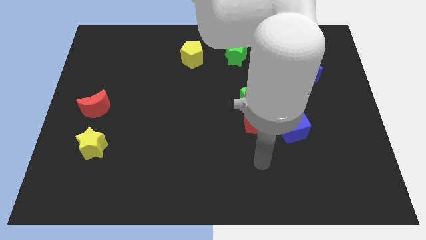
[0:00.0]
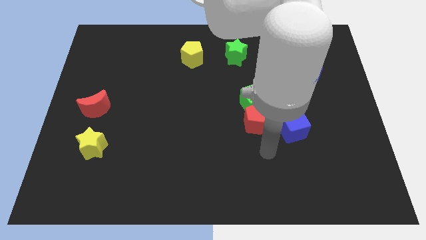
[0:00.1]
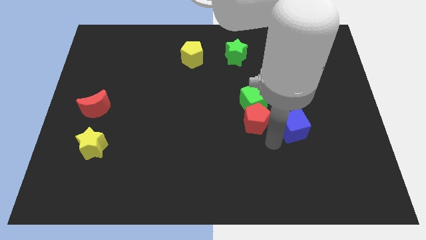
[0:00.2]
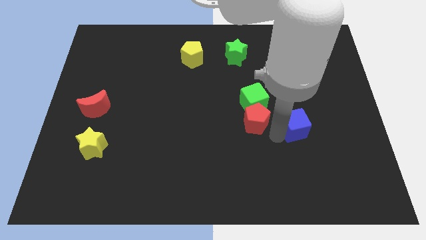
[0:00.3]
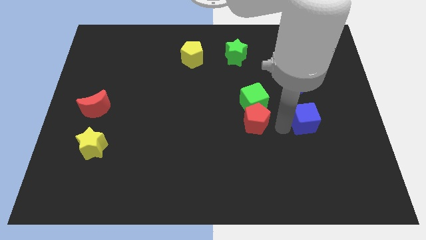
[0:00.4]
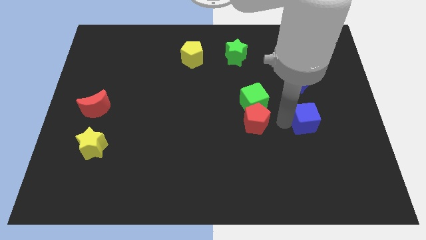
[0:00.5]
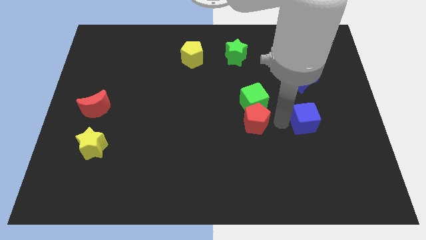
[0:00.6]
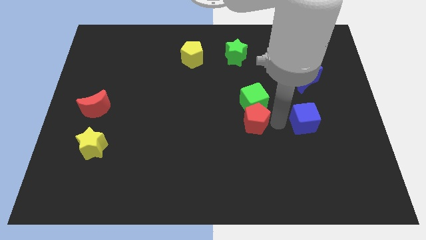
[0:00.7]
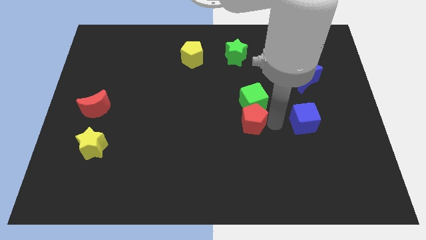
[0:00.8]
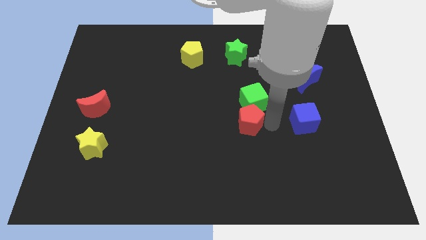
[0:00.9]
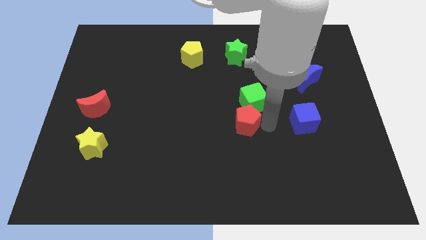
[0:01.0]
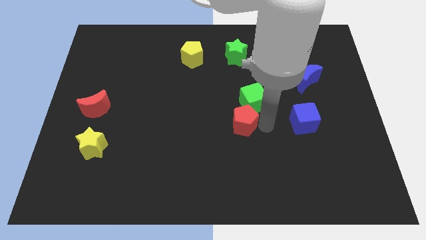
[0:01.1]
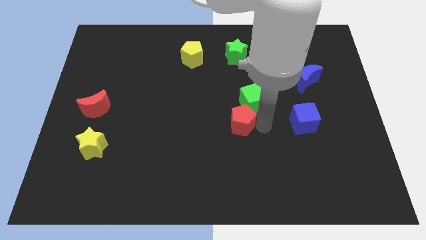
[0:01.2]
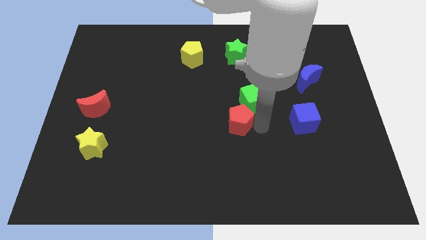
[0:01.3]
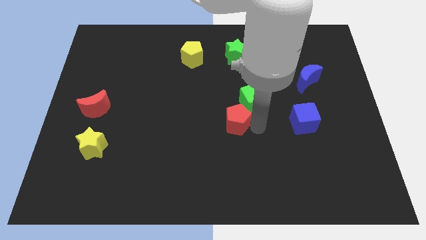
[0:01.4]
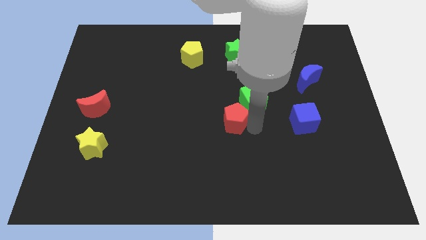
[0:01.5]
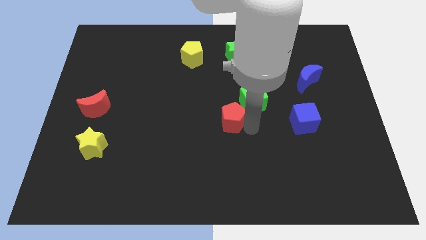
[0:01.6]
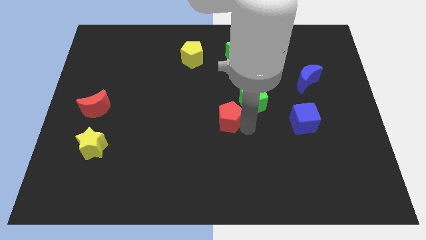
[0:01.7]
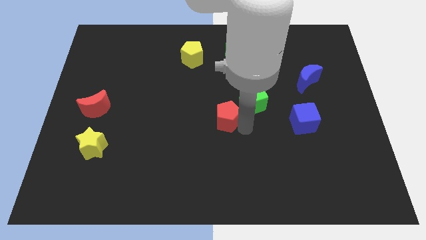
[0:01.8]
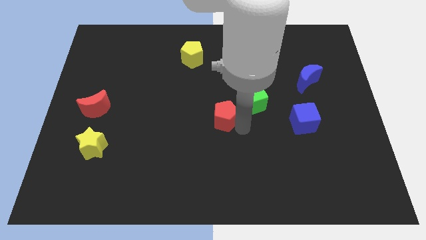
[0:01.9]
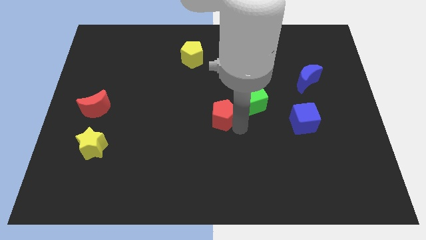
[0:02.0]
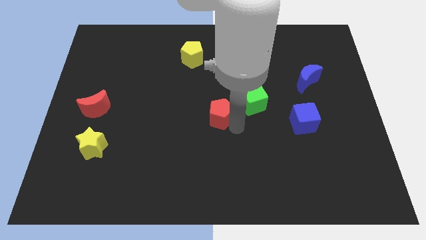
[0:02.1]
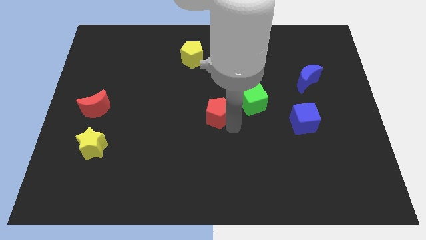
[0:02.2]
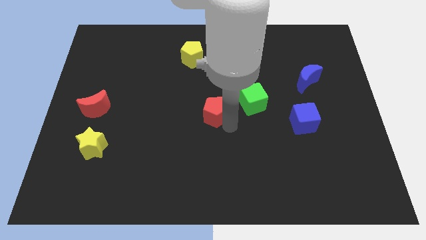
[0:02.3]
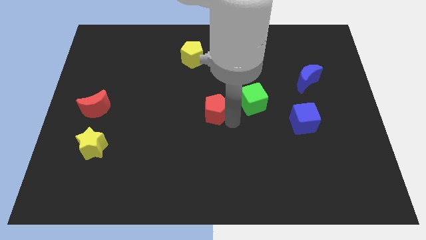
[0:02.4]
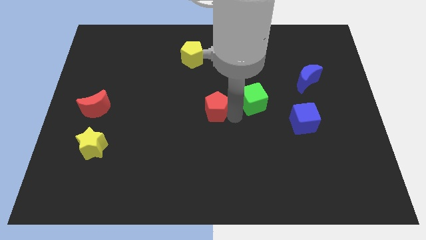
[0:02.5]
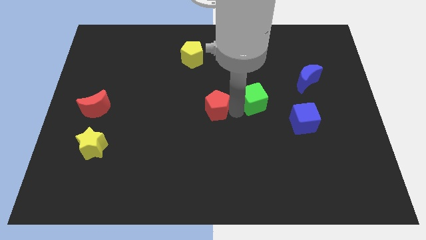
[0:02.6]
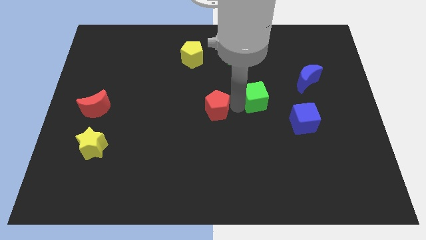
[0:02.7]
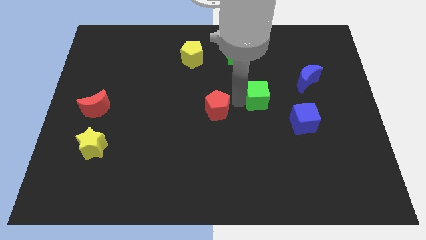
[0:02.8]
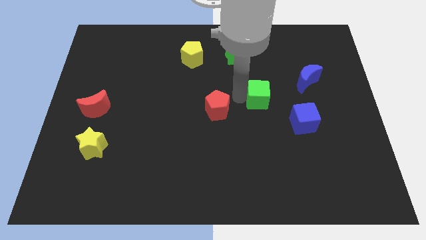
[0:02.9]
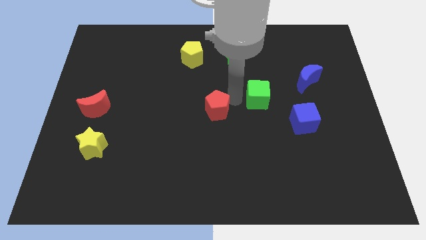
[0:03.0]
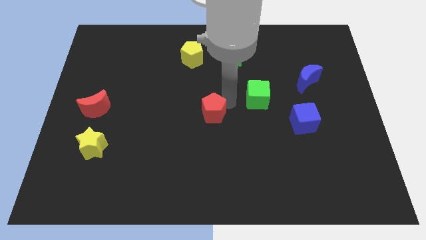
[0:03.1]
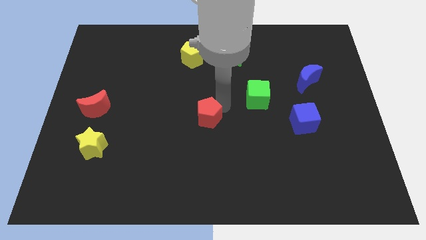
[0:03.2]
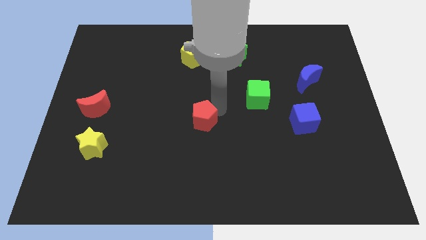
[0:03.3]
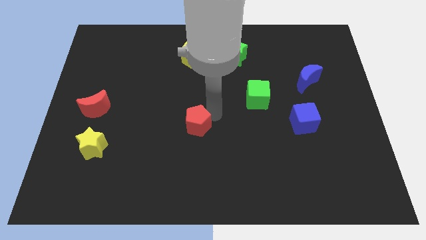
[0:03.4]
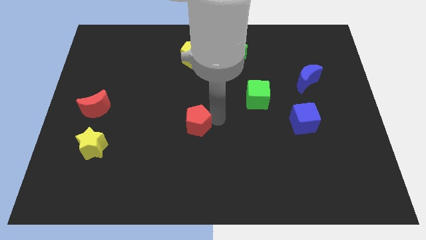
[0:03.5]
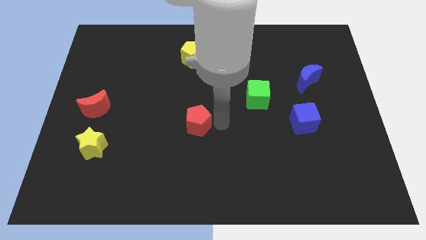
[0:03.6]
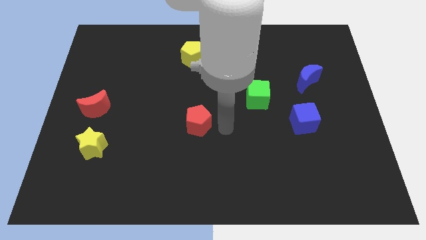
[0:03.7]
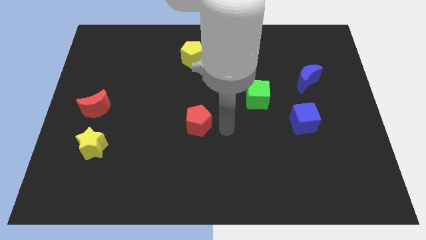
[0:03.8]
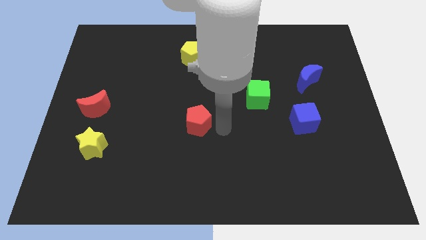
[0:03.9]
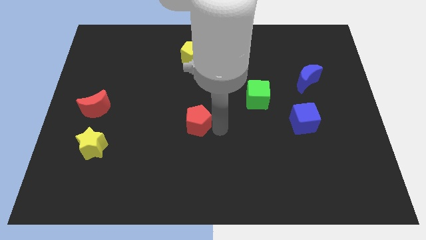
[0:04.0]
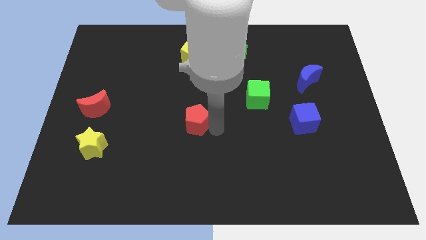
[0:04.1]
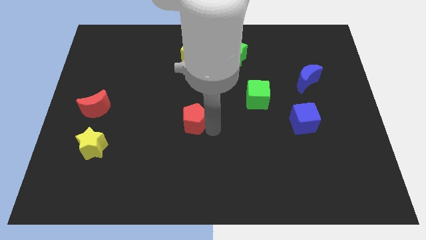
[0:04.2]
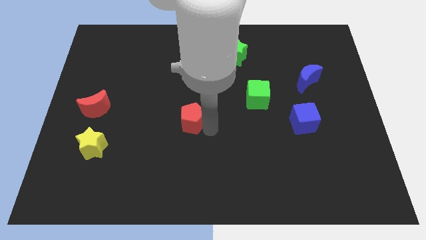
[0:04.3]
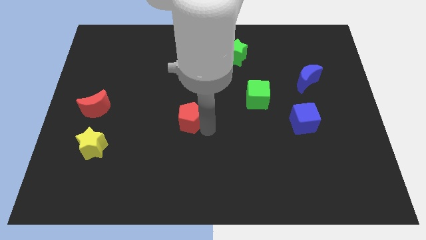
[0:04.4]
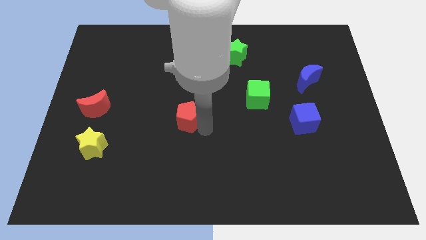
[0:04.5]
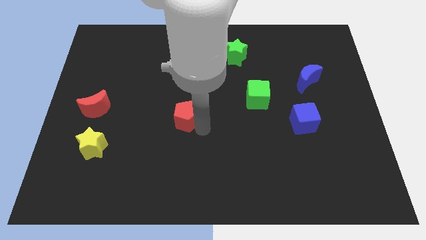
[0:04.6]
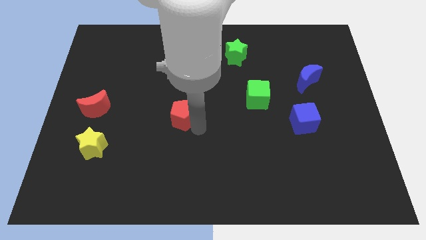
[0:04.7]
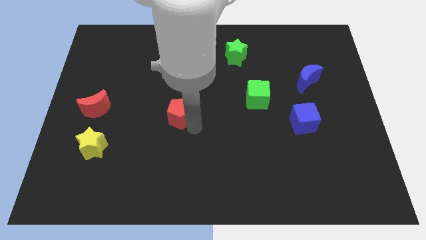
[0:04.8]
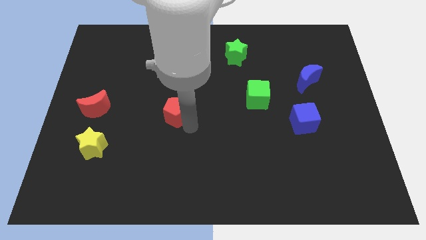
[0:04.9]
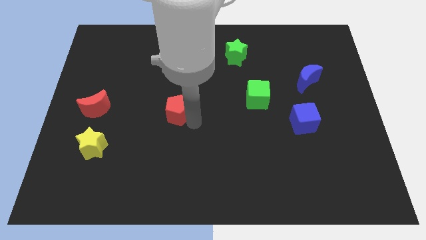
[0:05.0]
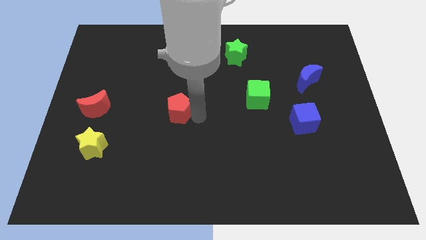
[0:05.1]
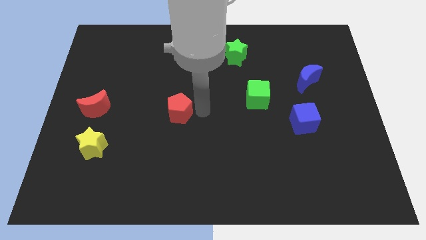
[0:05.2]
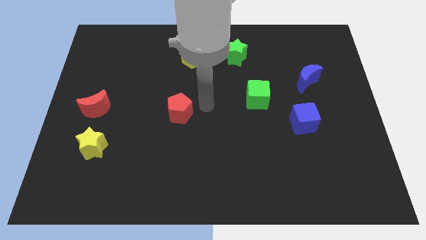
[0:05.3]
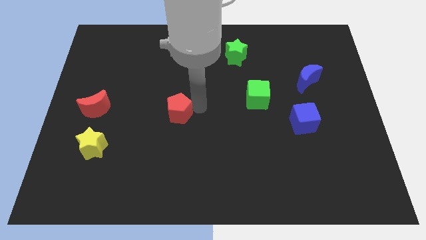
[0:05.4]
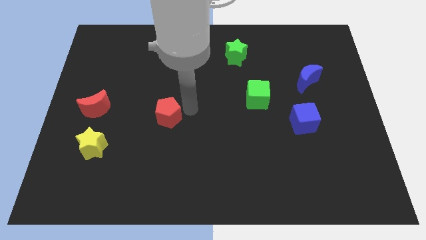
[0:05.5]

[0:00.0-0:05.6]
push the red pentagon left

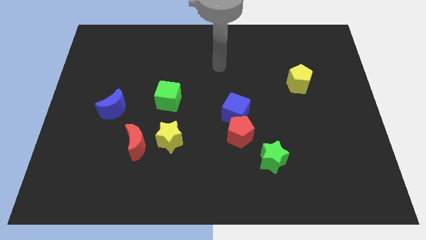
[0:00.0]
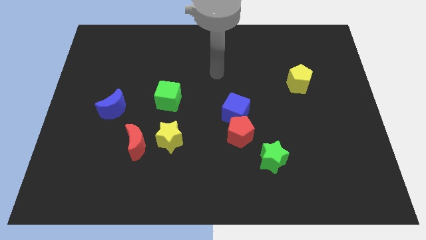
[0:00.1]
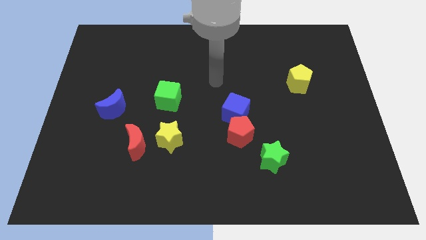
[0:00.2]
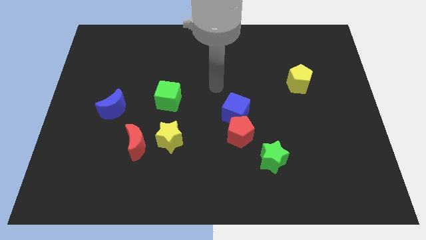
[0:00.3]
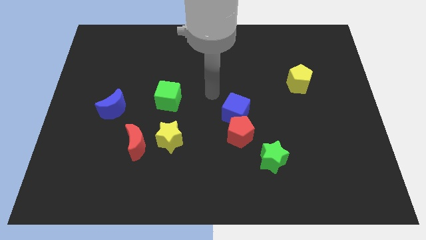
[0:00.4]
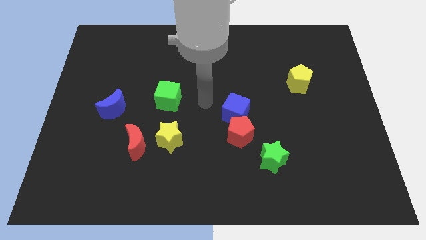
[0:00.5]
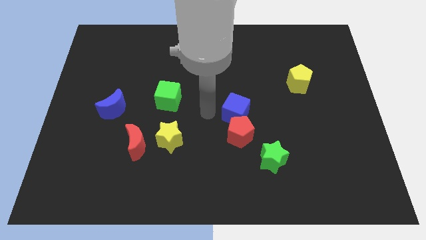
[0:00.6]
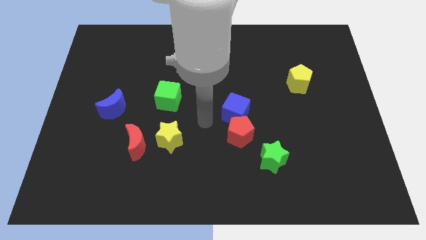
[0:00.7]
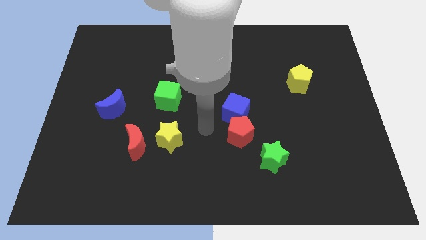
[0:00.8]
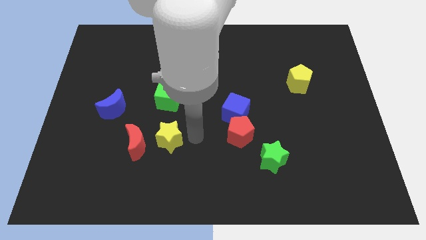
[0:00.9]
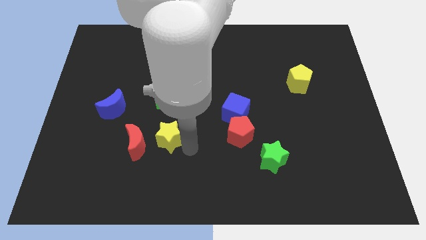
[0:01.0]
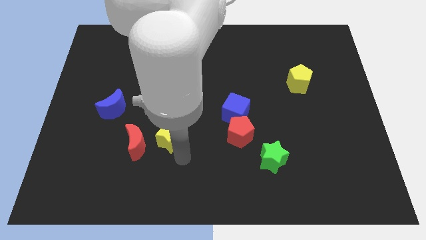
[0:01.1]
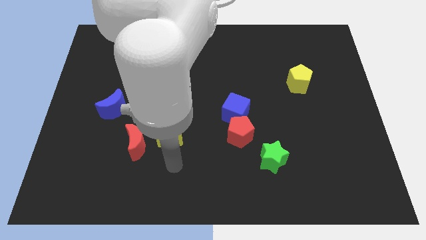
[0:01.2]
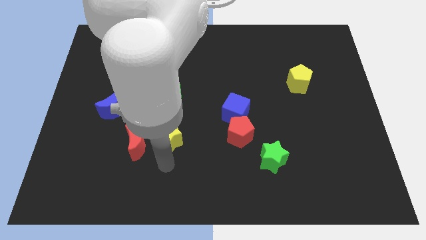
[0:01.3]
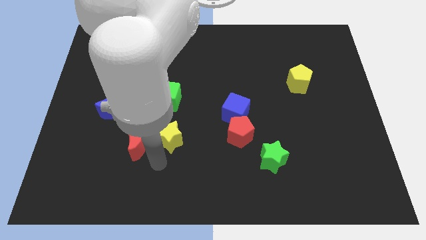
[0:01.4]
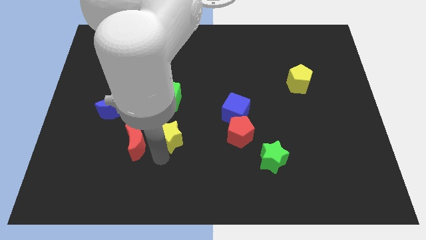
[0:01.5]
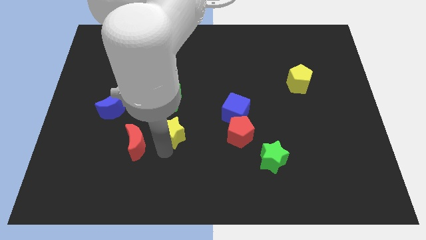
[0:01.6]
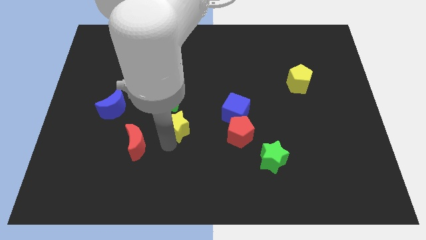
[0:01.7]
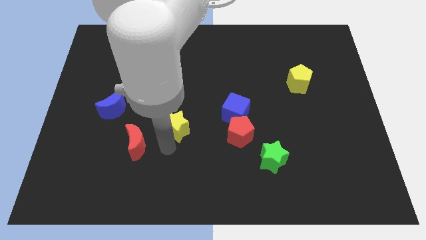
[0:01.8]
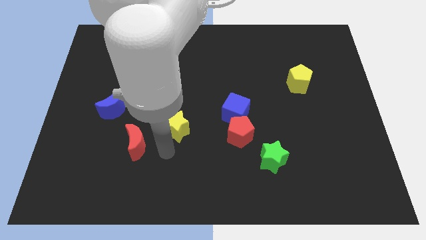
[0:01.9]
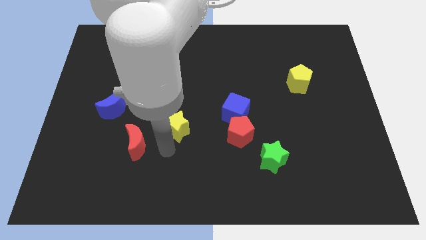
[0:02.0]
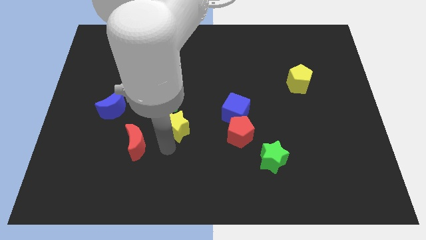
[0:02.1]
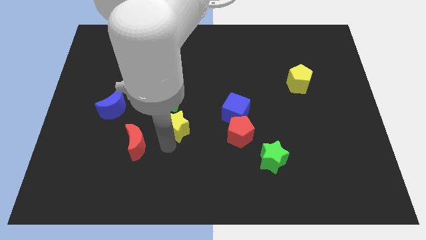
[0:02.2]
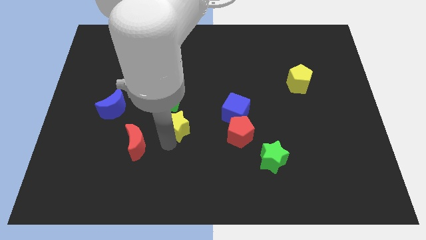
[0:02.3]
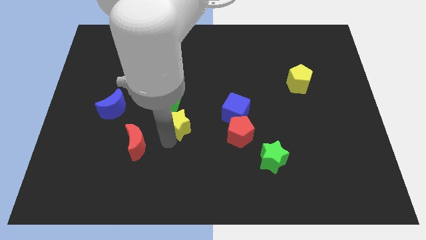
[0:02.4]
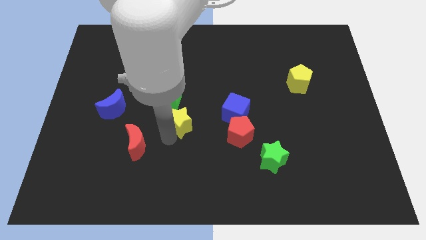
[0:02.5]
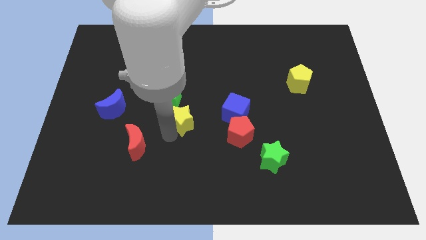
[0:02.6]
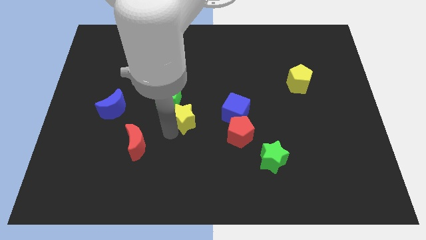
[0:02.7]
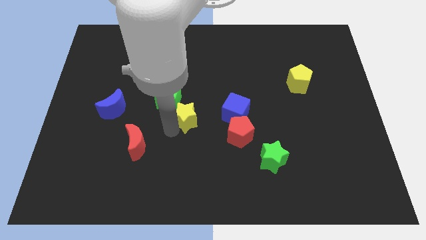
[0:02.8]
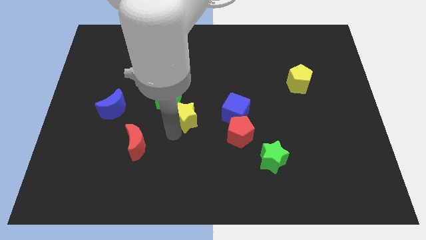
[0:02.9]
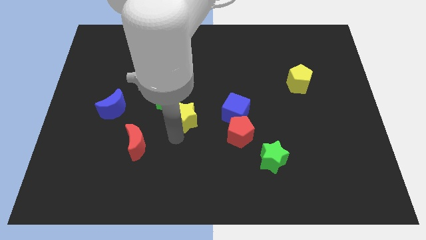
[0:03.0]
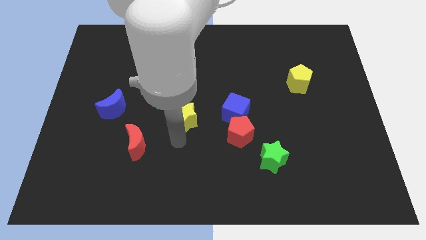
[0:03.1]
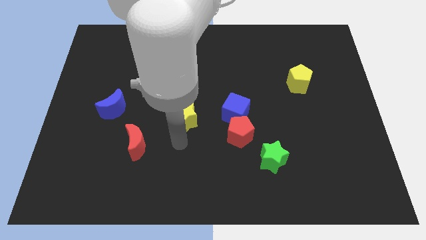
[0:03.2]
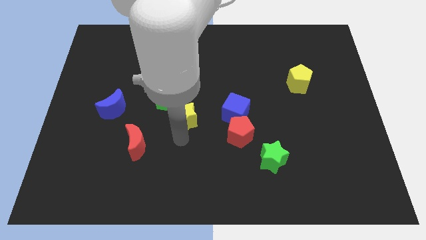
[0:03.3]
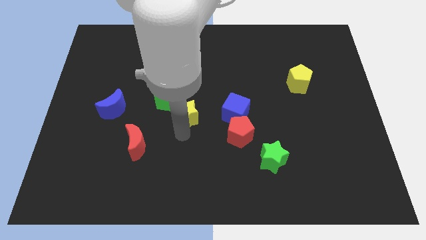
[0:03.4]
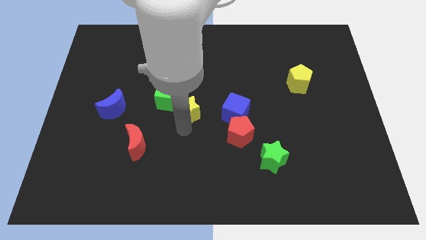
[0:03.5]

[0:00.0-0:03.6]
slide the yellow star upwards somewhat
